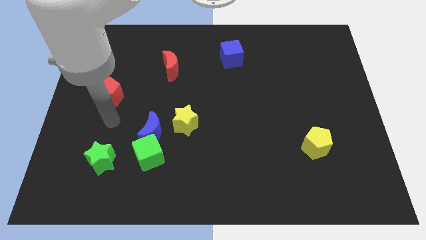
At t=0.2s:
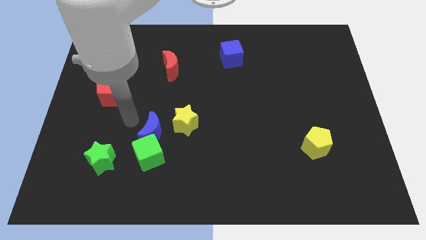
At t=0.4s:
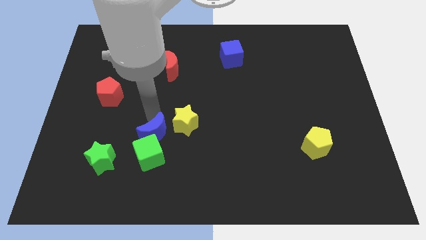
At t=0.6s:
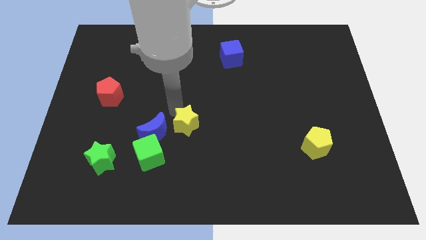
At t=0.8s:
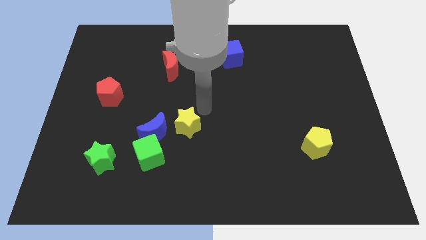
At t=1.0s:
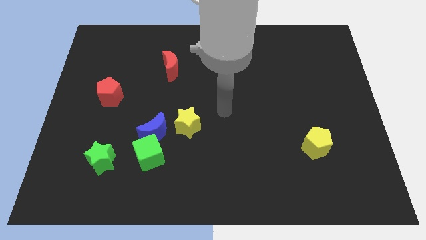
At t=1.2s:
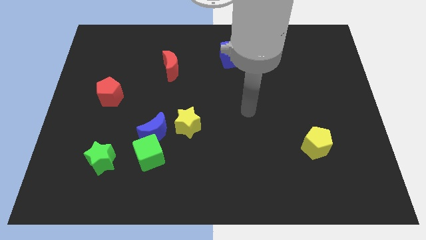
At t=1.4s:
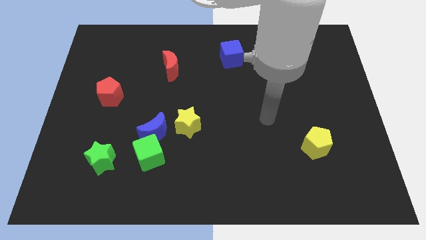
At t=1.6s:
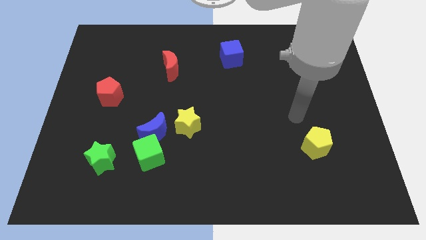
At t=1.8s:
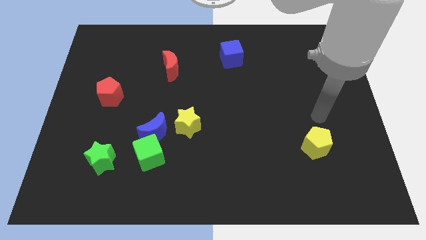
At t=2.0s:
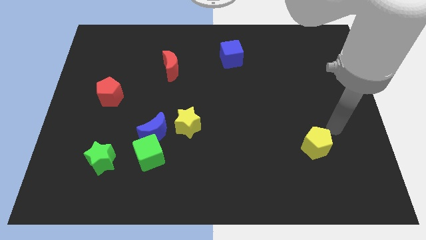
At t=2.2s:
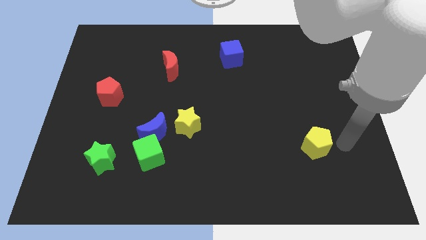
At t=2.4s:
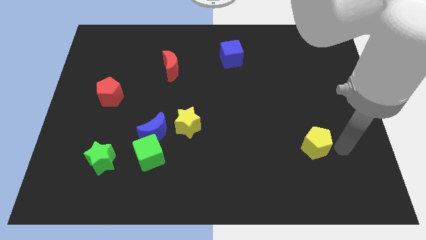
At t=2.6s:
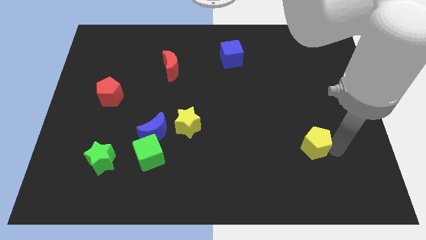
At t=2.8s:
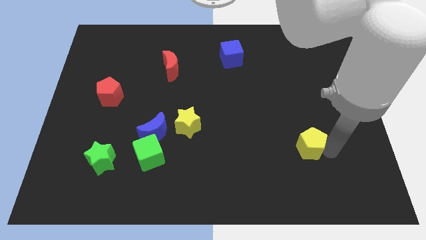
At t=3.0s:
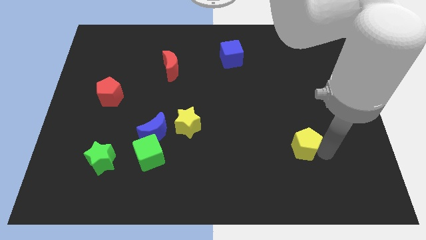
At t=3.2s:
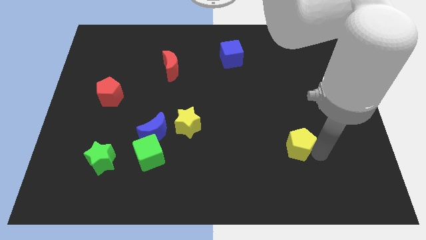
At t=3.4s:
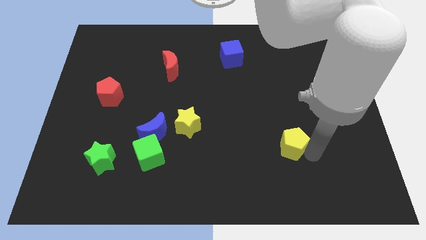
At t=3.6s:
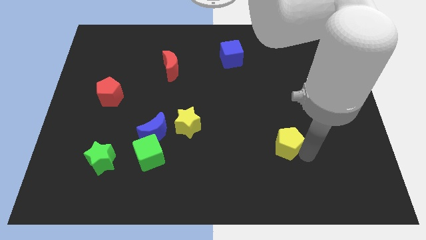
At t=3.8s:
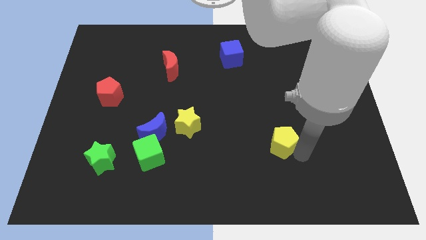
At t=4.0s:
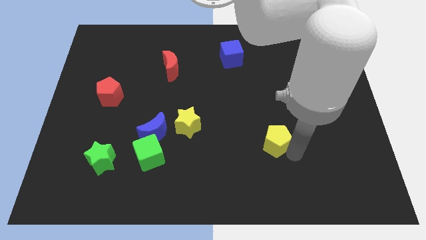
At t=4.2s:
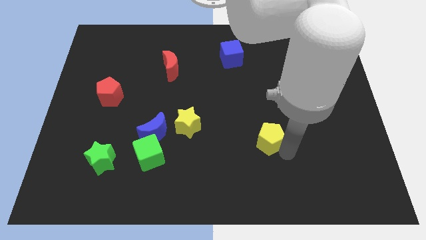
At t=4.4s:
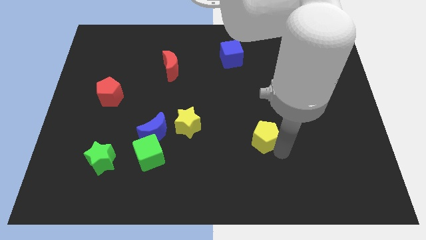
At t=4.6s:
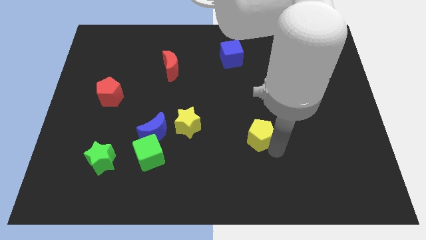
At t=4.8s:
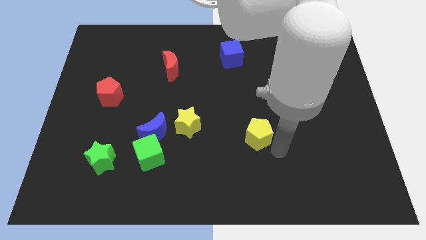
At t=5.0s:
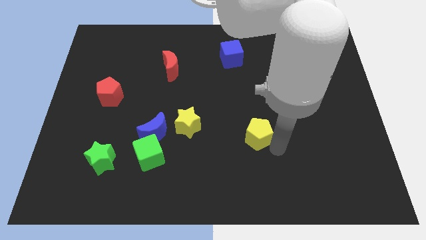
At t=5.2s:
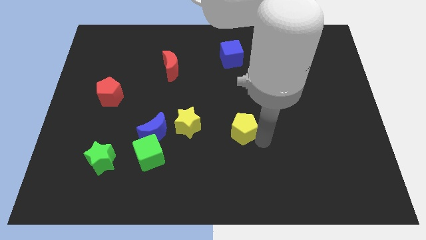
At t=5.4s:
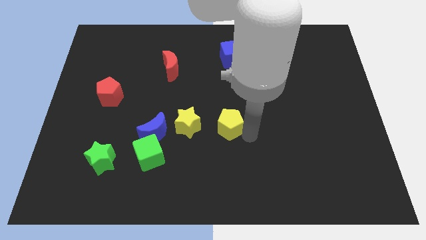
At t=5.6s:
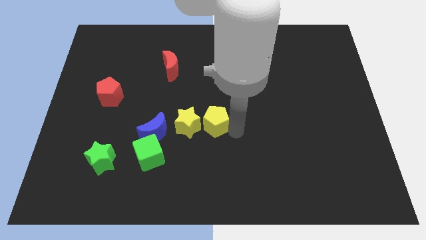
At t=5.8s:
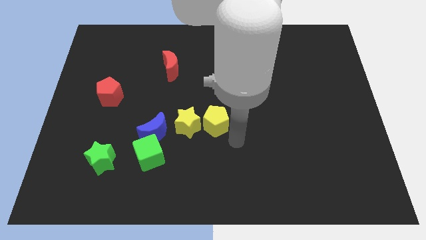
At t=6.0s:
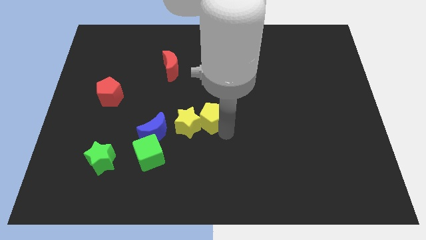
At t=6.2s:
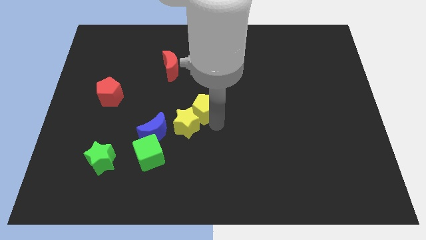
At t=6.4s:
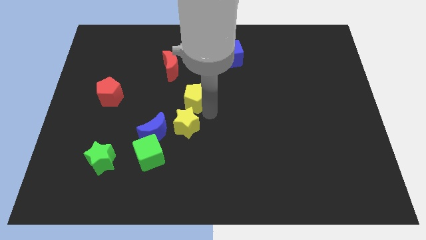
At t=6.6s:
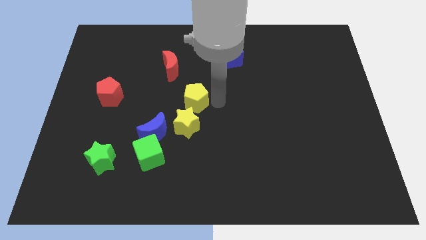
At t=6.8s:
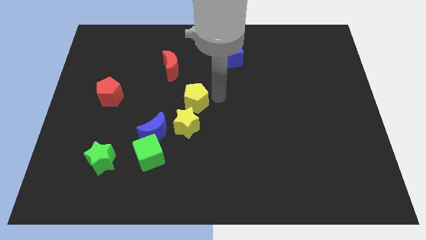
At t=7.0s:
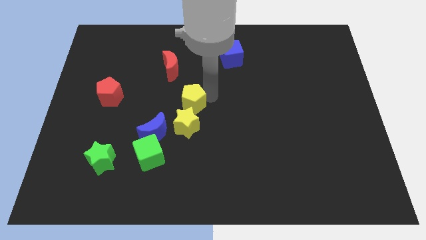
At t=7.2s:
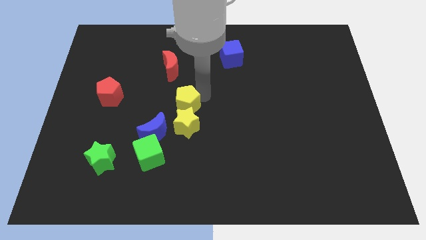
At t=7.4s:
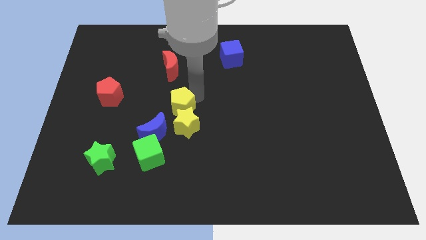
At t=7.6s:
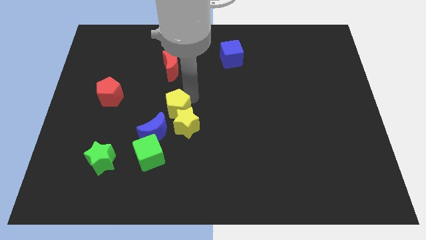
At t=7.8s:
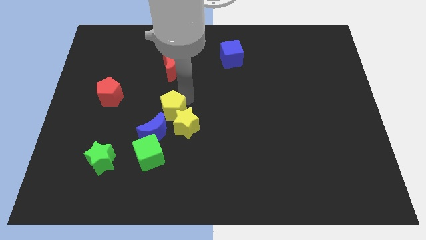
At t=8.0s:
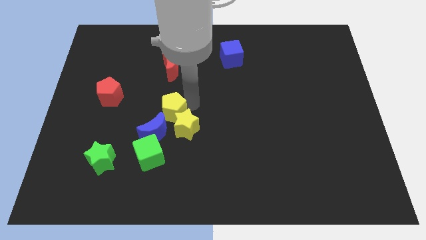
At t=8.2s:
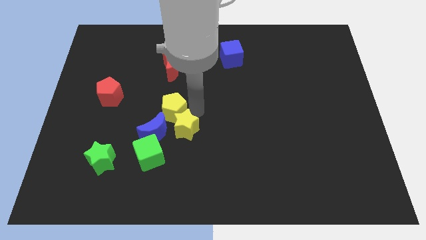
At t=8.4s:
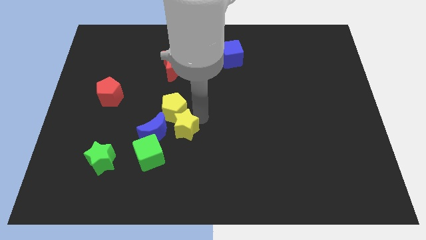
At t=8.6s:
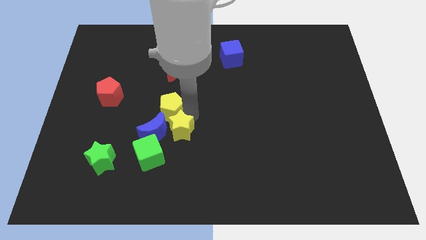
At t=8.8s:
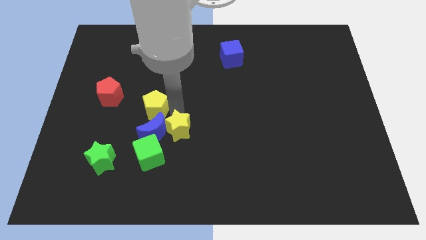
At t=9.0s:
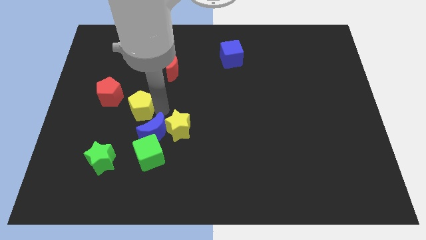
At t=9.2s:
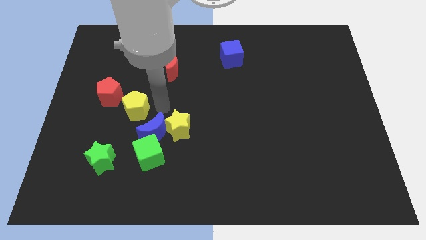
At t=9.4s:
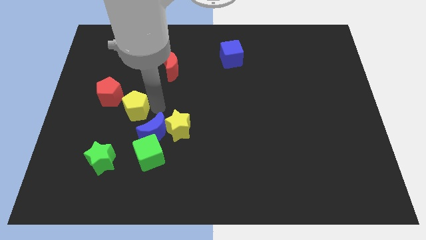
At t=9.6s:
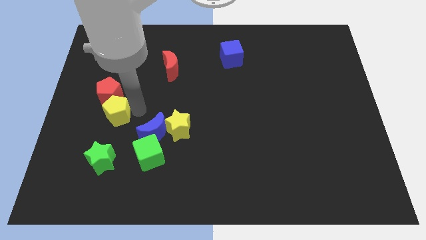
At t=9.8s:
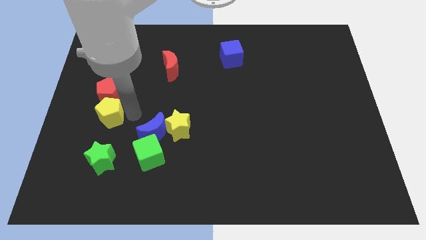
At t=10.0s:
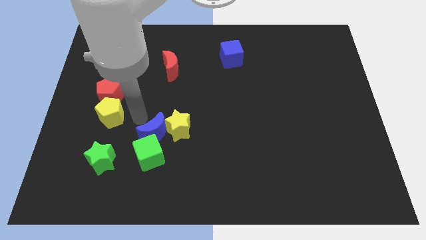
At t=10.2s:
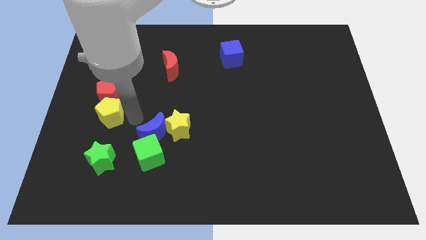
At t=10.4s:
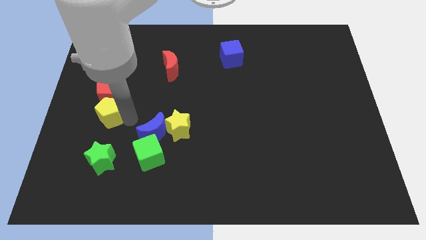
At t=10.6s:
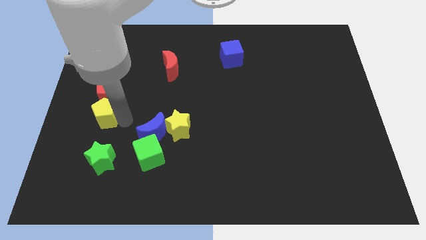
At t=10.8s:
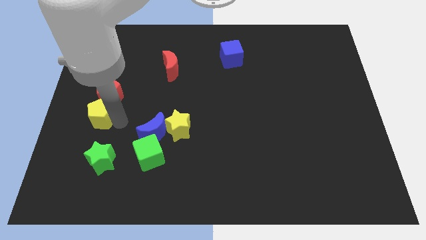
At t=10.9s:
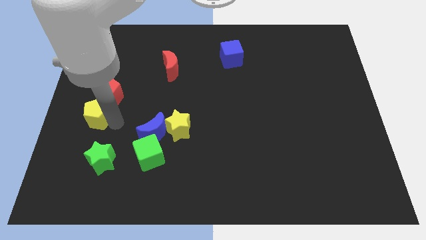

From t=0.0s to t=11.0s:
push the yellow pentagon to the left side

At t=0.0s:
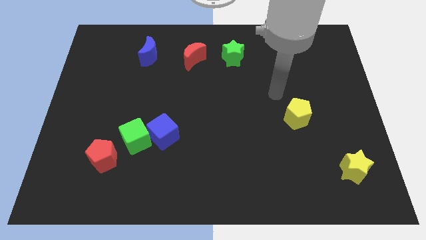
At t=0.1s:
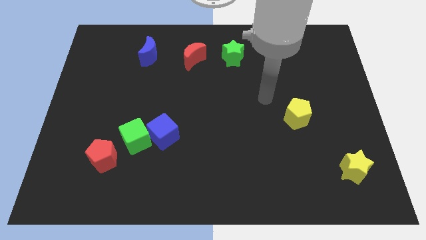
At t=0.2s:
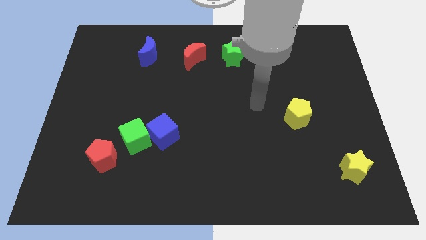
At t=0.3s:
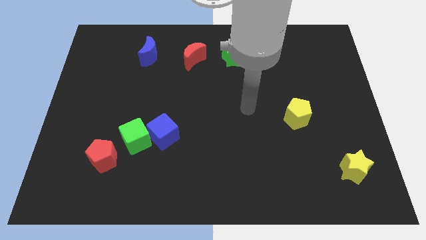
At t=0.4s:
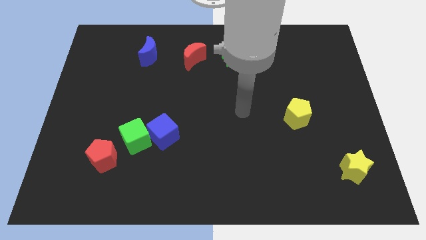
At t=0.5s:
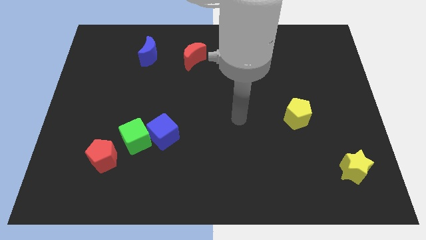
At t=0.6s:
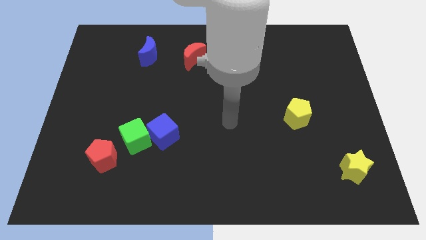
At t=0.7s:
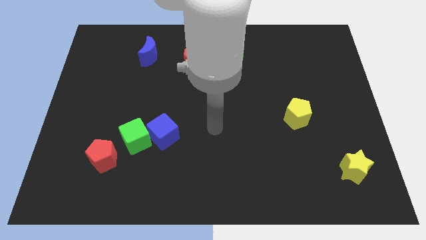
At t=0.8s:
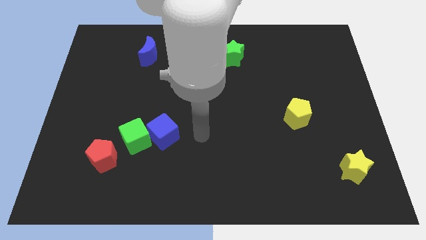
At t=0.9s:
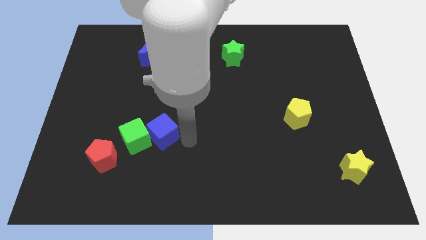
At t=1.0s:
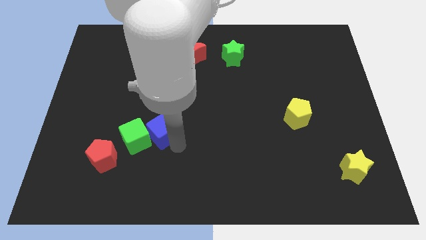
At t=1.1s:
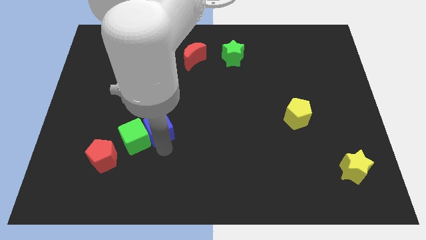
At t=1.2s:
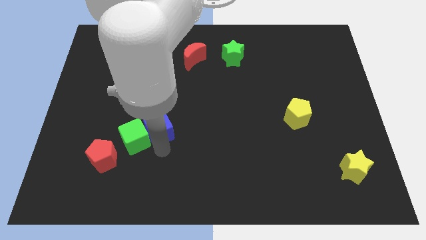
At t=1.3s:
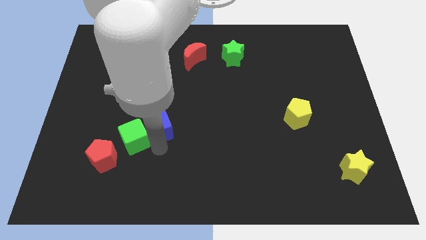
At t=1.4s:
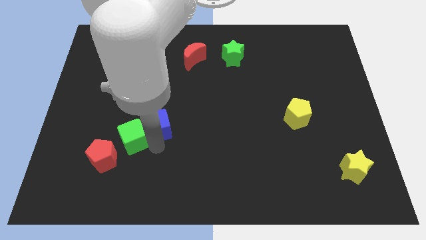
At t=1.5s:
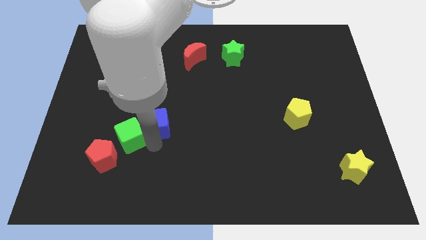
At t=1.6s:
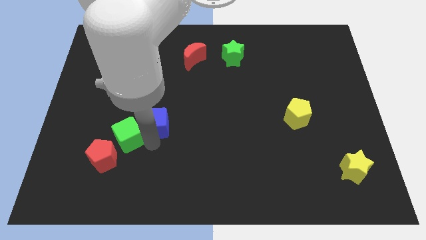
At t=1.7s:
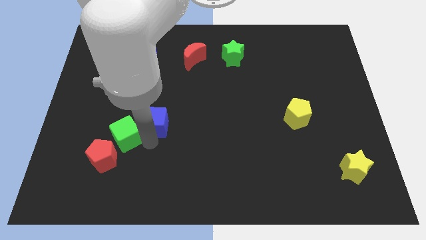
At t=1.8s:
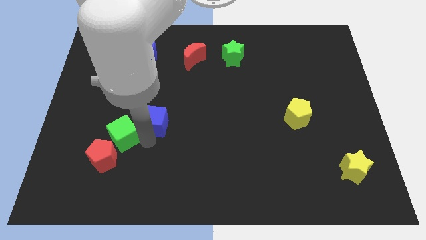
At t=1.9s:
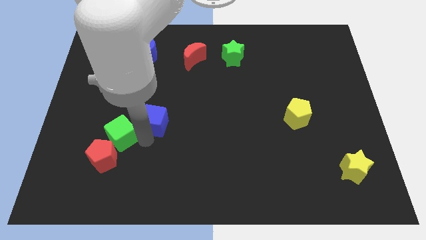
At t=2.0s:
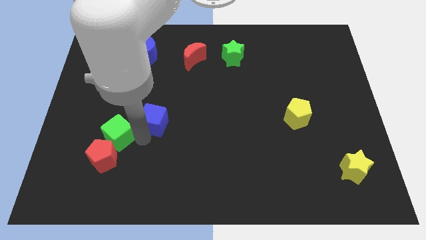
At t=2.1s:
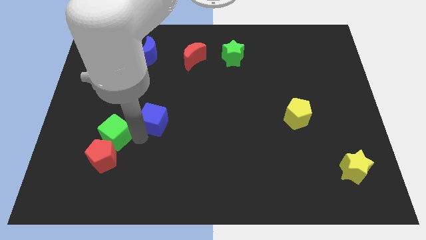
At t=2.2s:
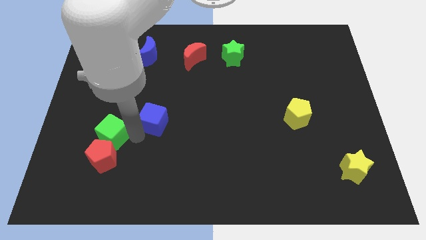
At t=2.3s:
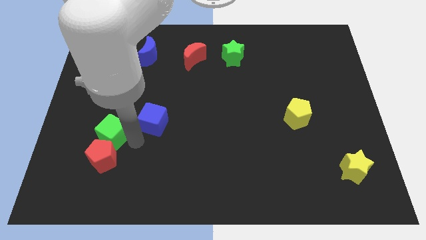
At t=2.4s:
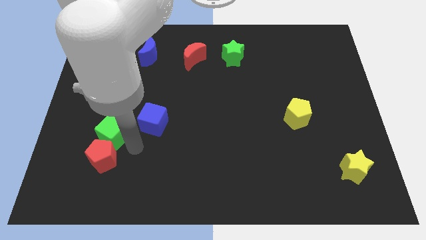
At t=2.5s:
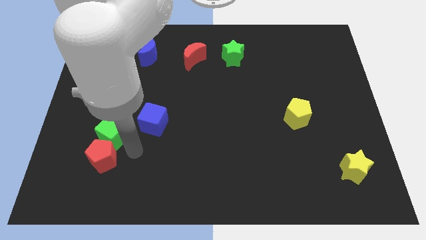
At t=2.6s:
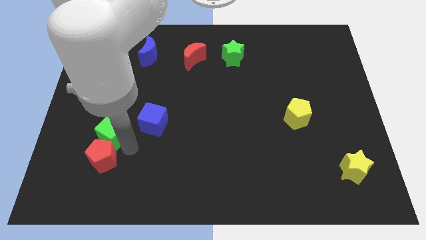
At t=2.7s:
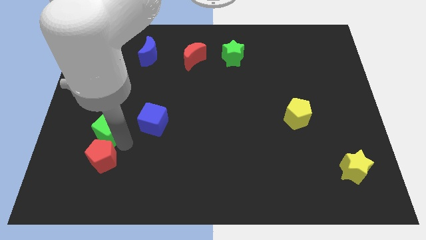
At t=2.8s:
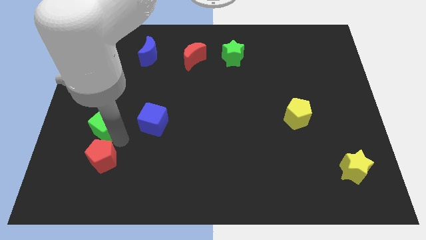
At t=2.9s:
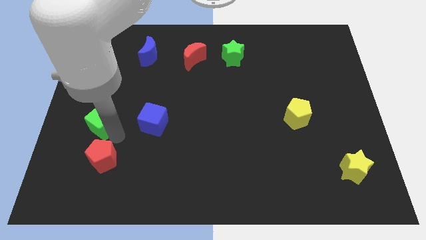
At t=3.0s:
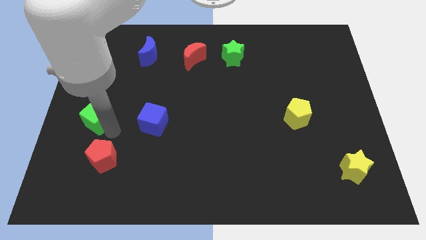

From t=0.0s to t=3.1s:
put the green cube to the left side of the board
